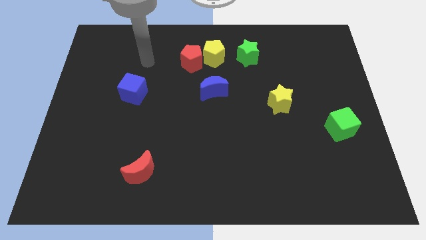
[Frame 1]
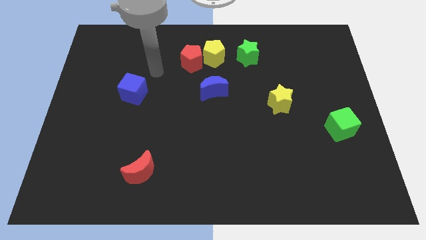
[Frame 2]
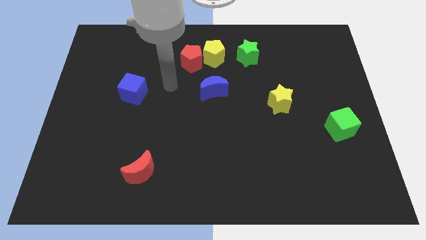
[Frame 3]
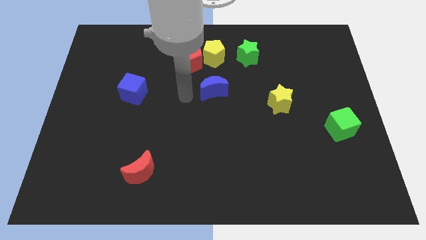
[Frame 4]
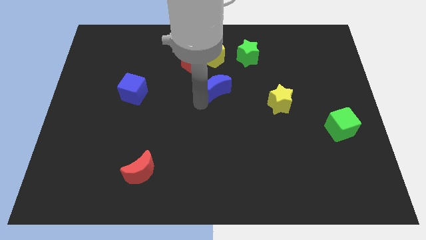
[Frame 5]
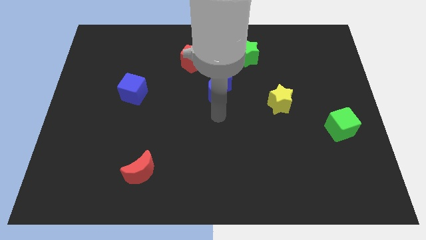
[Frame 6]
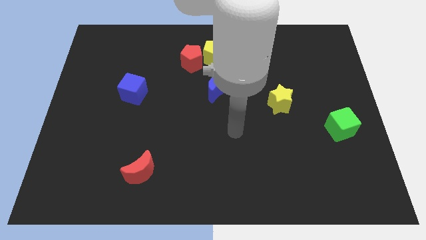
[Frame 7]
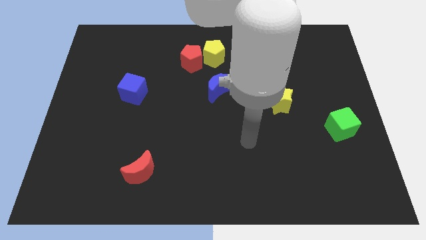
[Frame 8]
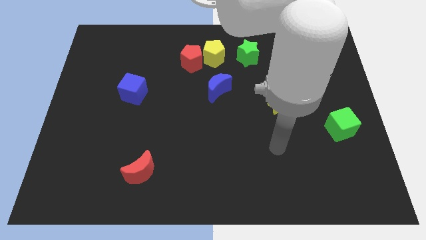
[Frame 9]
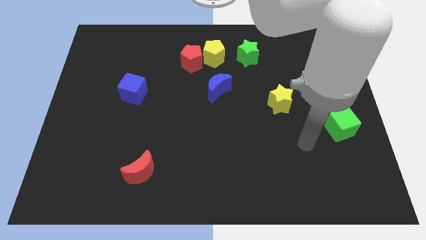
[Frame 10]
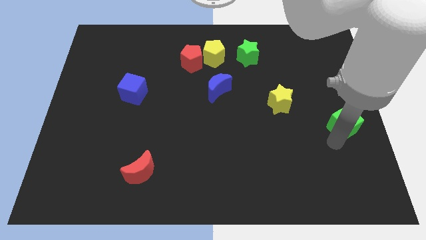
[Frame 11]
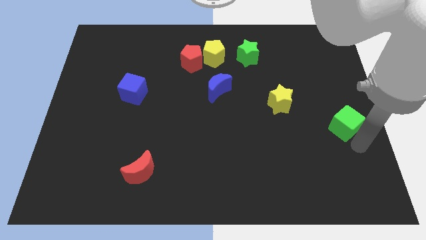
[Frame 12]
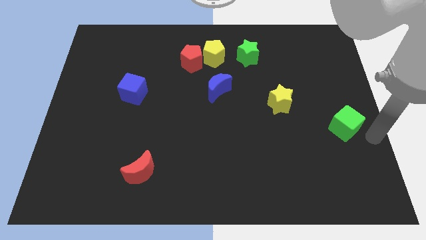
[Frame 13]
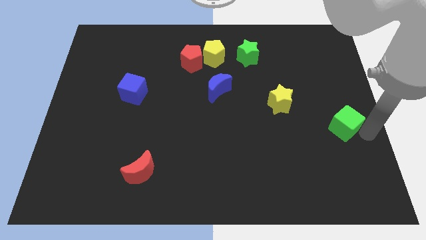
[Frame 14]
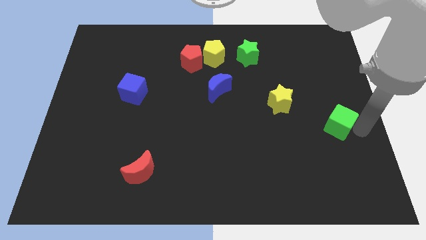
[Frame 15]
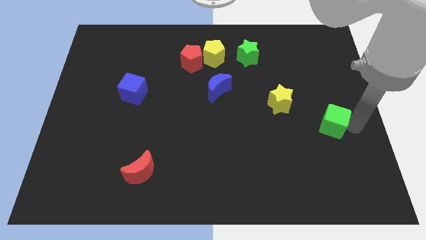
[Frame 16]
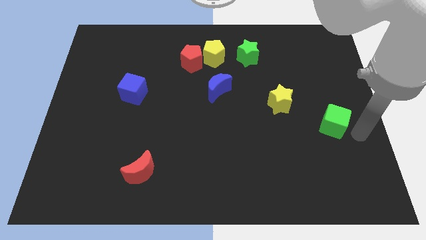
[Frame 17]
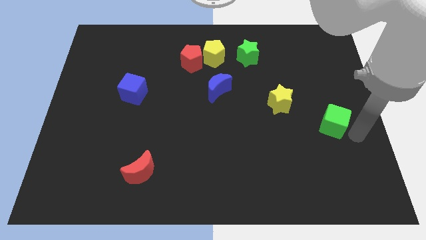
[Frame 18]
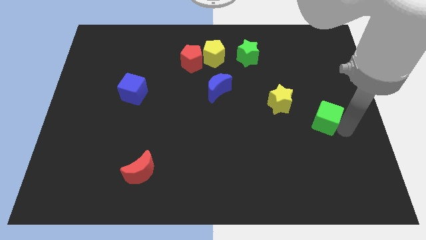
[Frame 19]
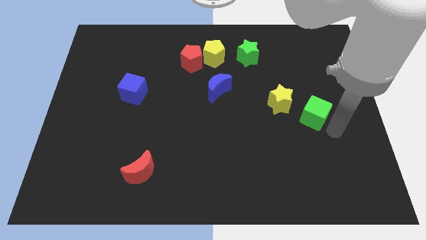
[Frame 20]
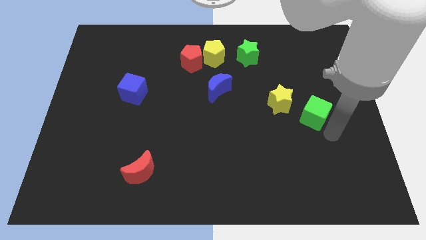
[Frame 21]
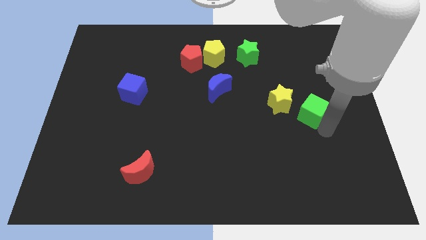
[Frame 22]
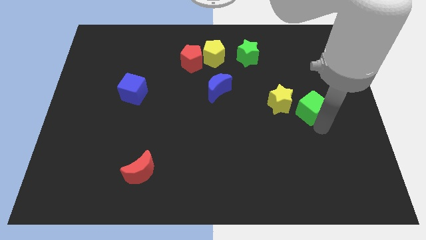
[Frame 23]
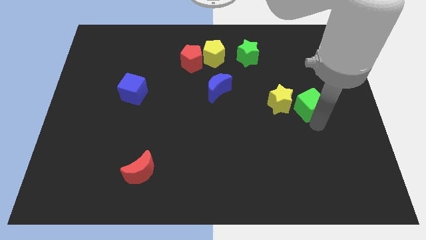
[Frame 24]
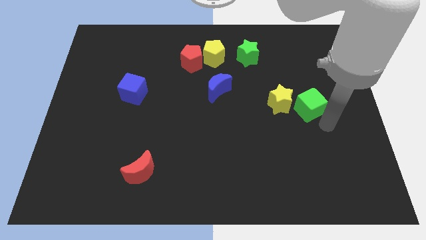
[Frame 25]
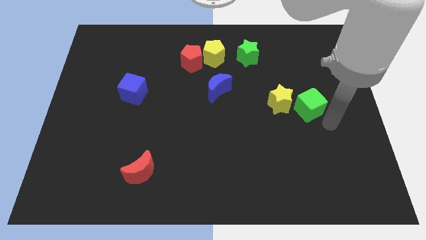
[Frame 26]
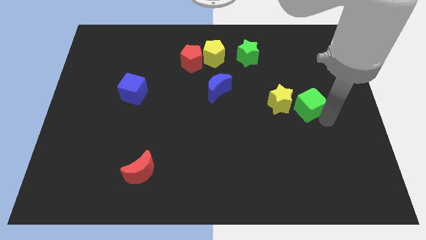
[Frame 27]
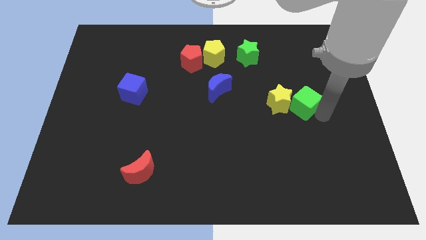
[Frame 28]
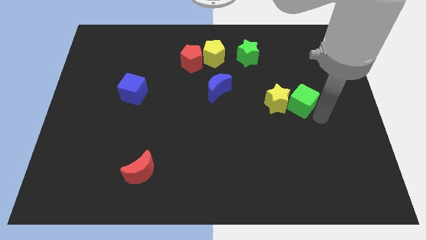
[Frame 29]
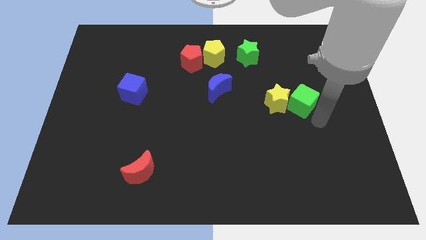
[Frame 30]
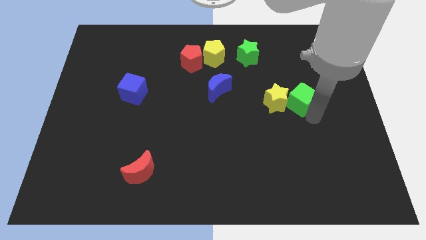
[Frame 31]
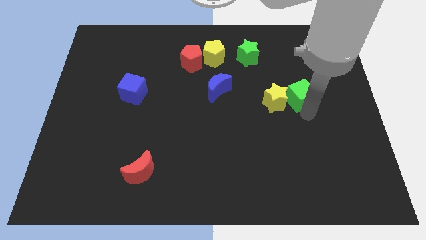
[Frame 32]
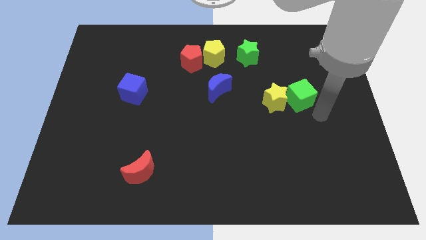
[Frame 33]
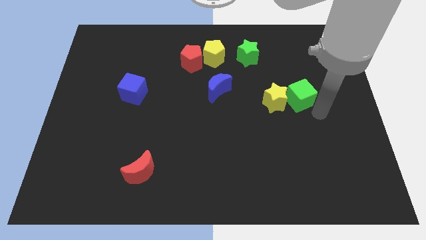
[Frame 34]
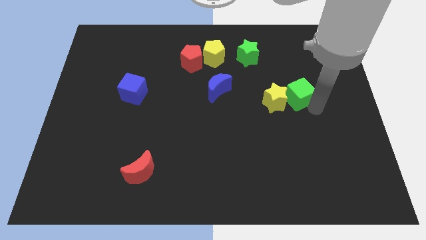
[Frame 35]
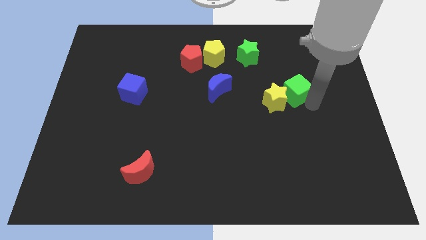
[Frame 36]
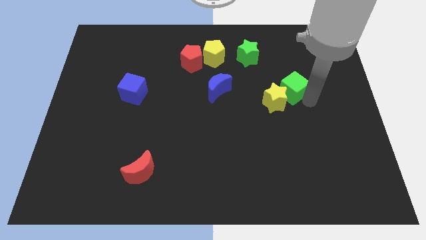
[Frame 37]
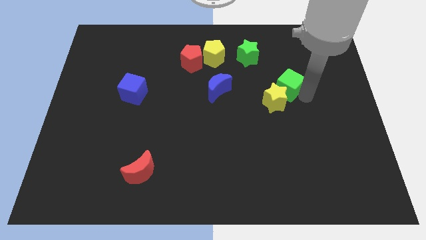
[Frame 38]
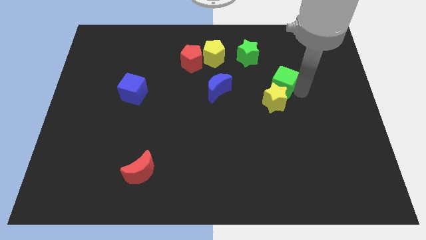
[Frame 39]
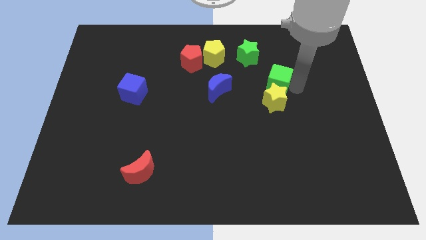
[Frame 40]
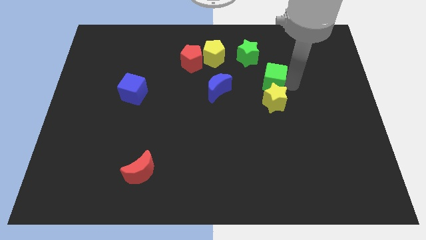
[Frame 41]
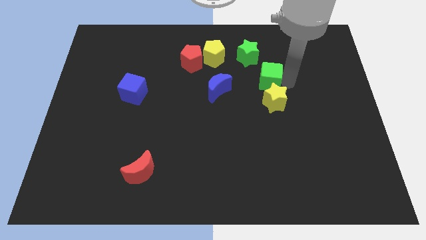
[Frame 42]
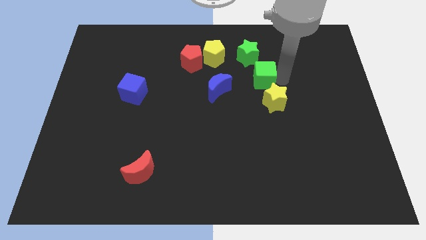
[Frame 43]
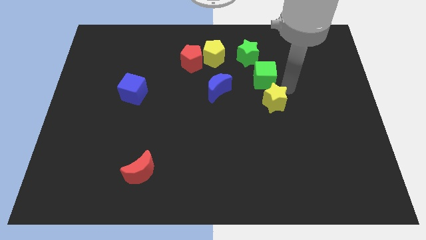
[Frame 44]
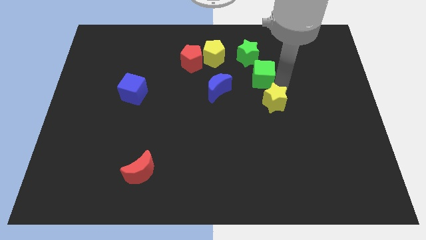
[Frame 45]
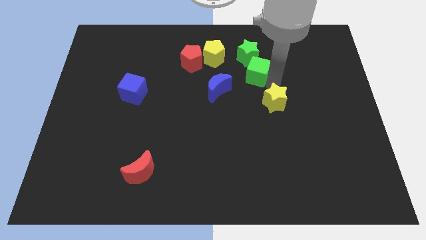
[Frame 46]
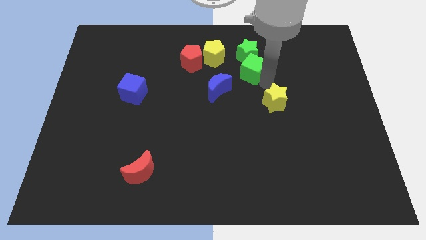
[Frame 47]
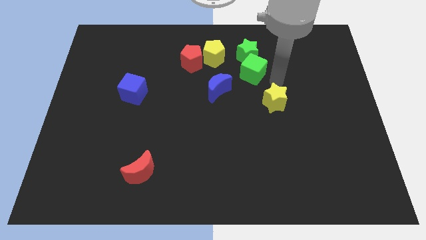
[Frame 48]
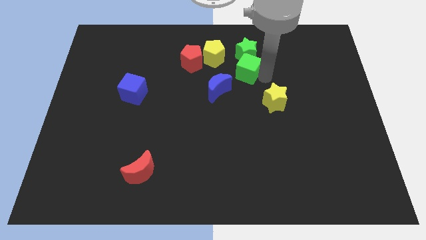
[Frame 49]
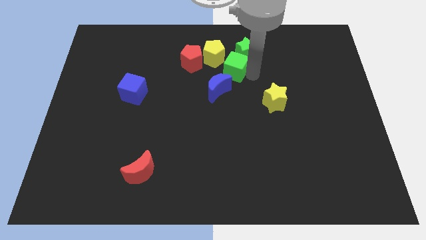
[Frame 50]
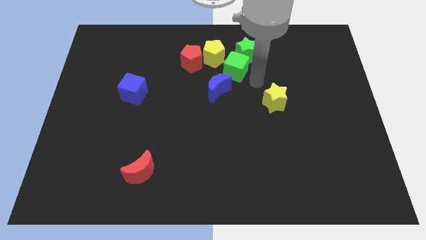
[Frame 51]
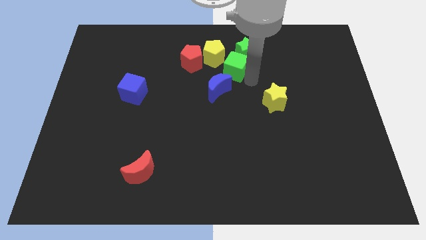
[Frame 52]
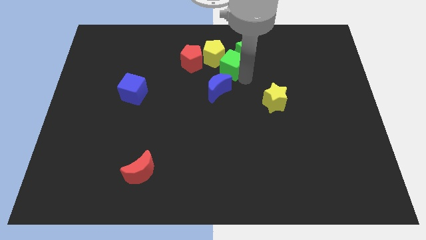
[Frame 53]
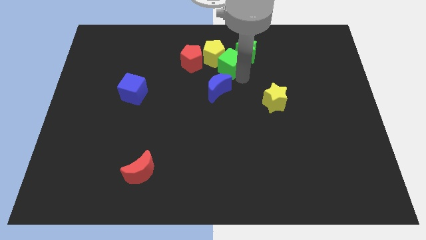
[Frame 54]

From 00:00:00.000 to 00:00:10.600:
put the green cube next to the yellow pentagon

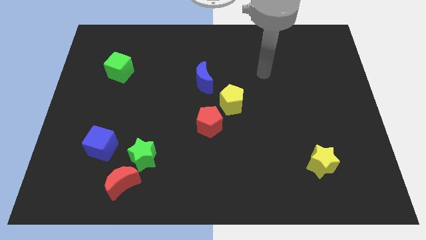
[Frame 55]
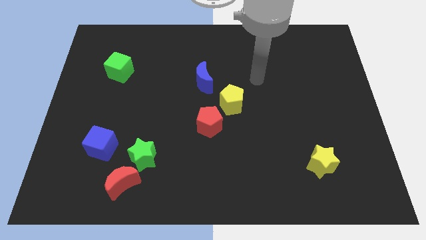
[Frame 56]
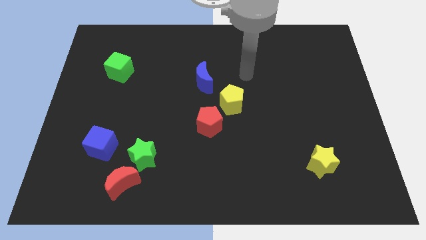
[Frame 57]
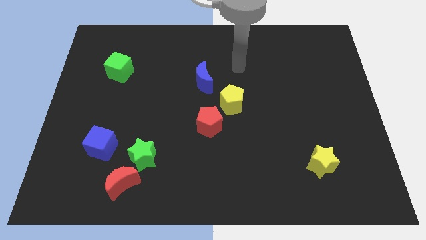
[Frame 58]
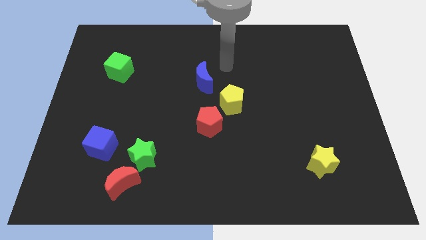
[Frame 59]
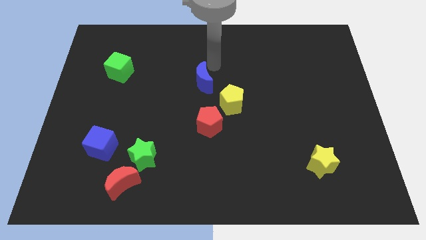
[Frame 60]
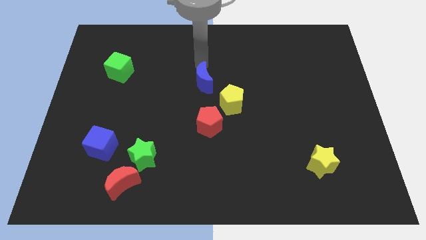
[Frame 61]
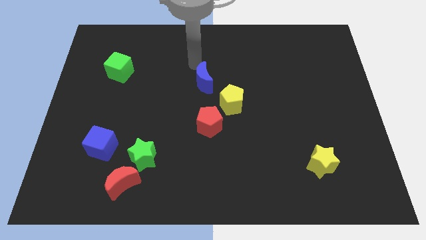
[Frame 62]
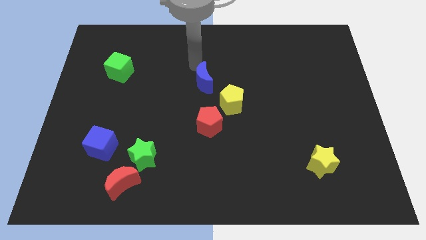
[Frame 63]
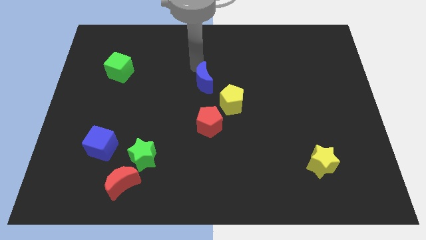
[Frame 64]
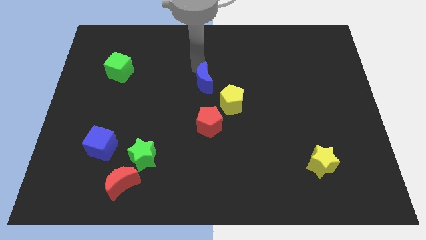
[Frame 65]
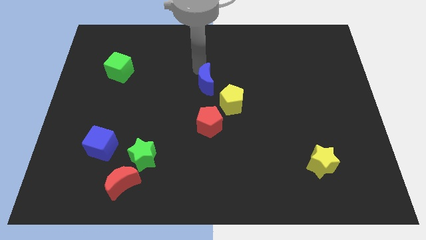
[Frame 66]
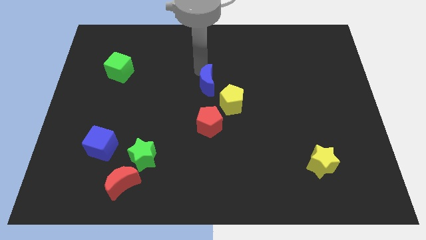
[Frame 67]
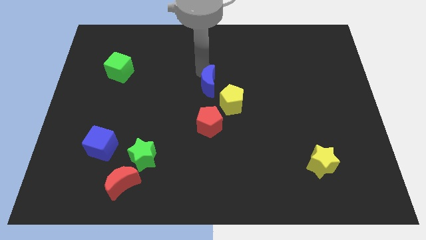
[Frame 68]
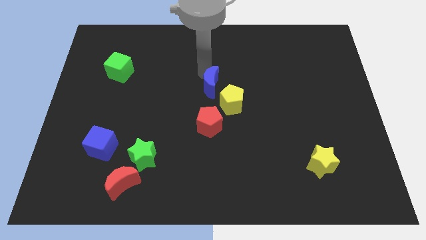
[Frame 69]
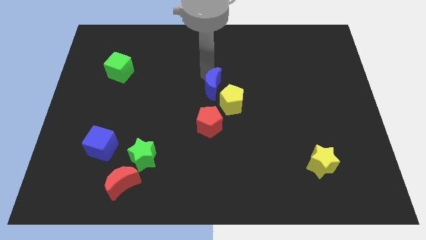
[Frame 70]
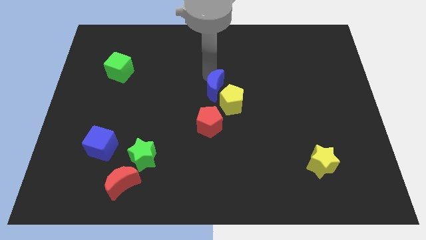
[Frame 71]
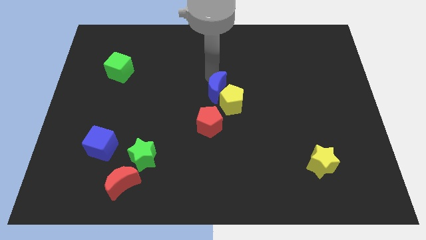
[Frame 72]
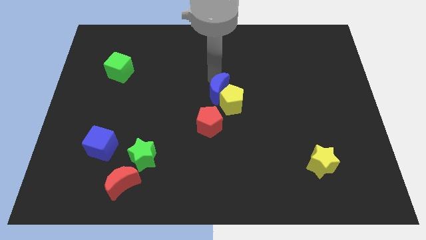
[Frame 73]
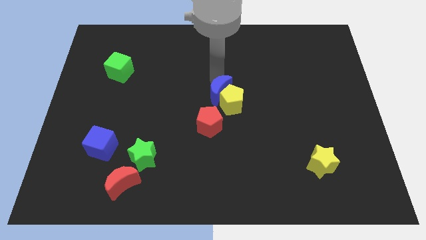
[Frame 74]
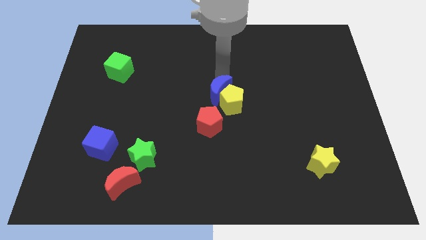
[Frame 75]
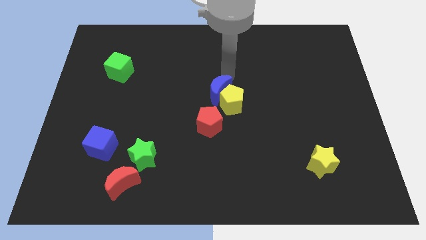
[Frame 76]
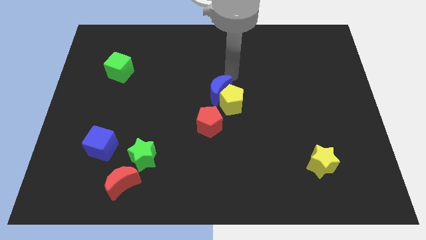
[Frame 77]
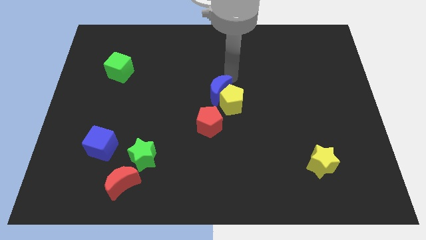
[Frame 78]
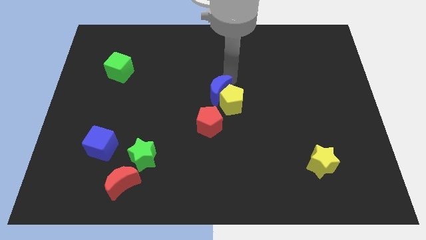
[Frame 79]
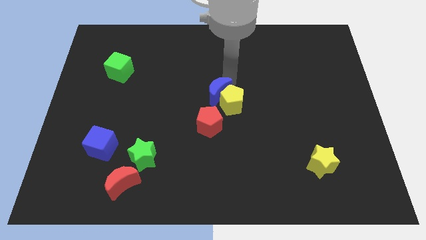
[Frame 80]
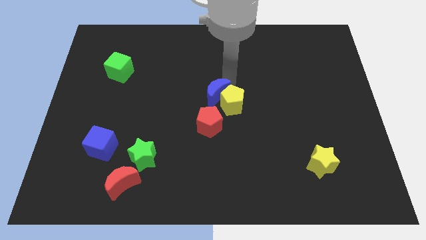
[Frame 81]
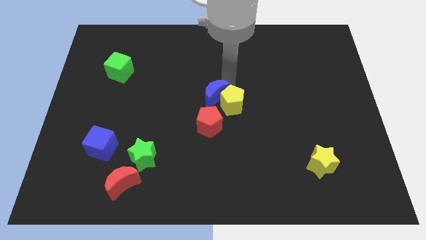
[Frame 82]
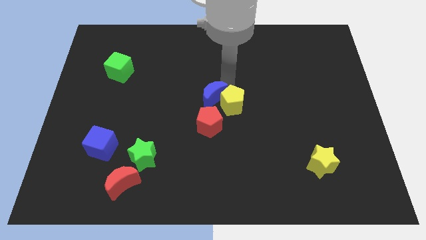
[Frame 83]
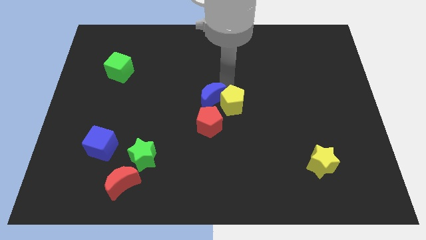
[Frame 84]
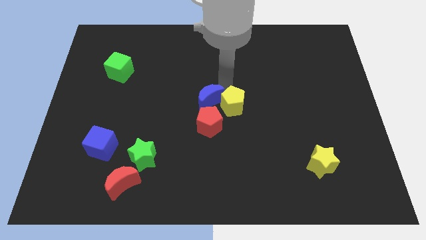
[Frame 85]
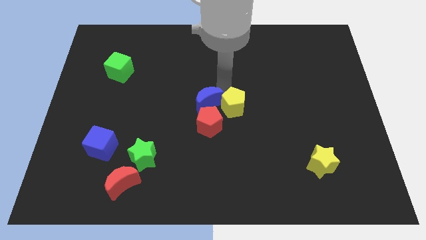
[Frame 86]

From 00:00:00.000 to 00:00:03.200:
move the blue moon close to the red pentagon
